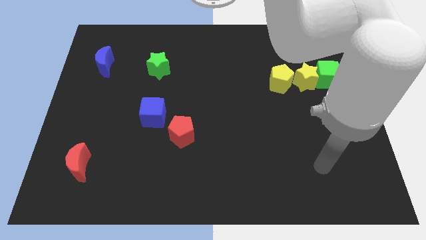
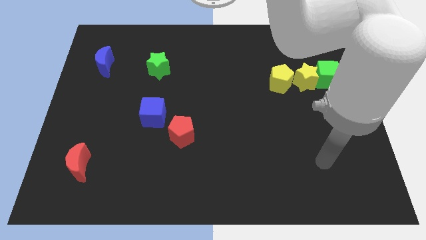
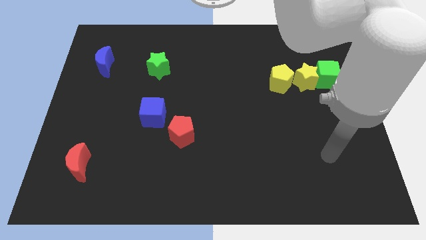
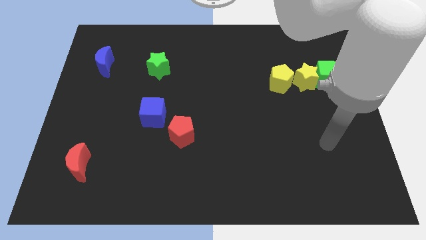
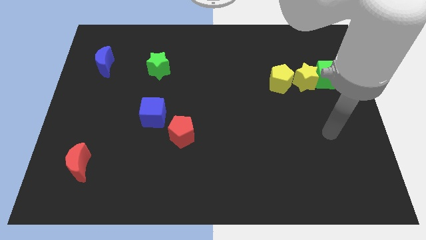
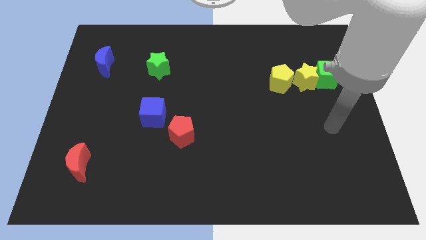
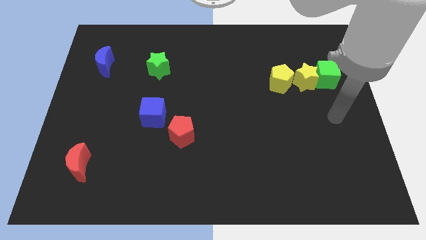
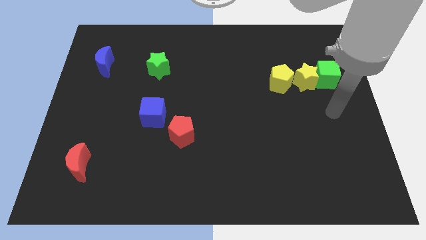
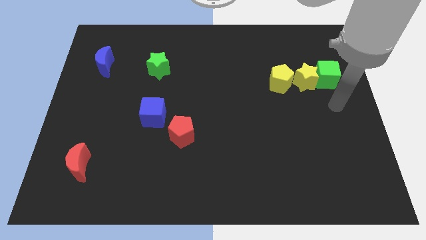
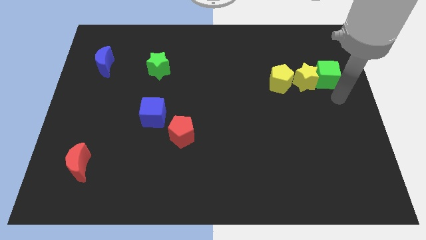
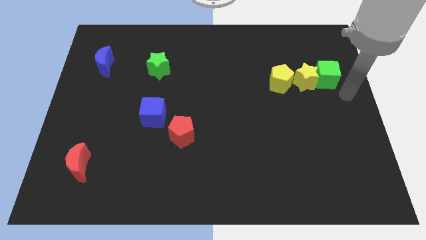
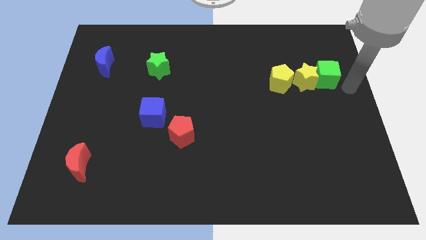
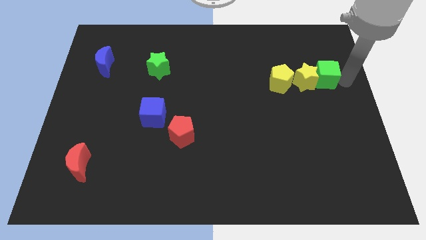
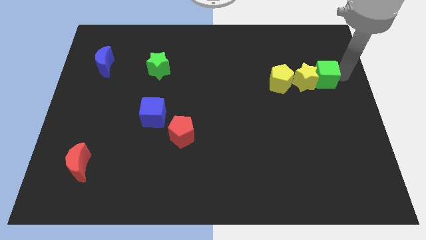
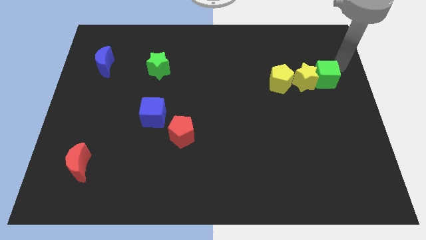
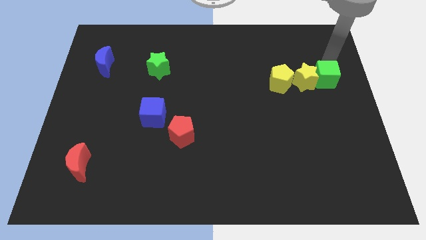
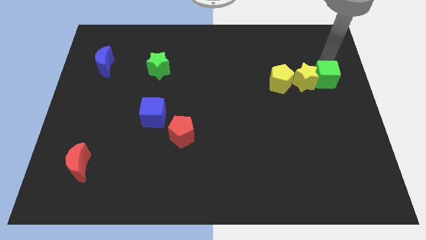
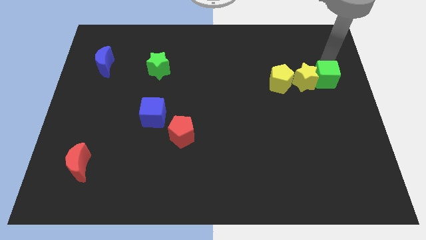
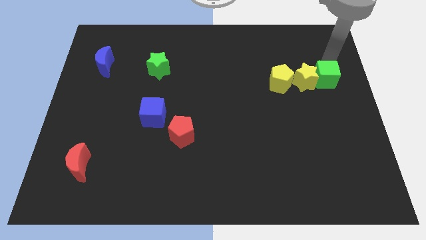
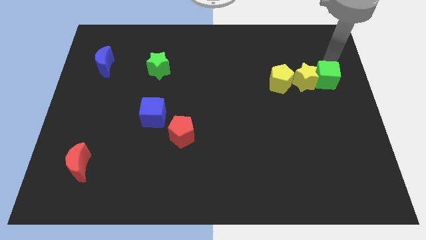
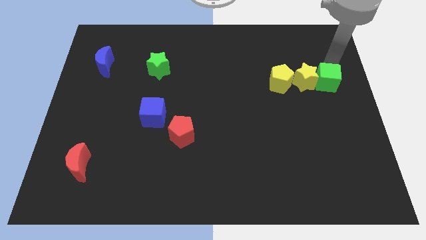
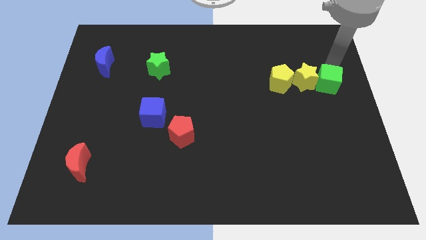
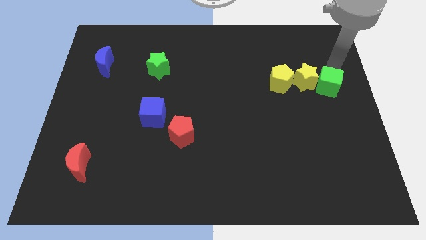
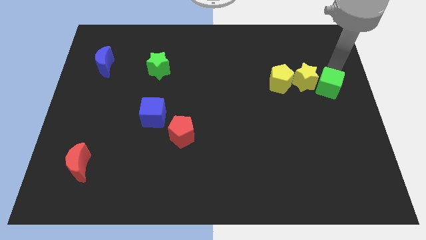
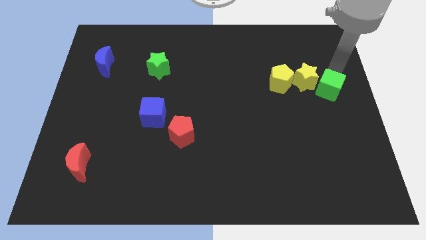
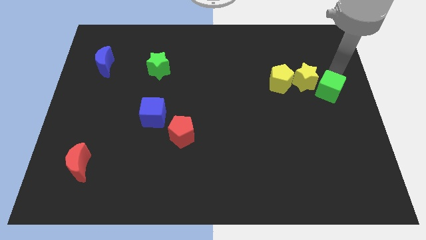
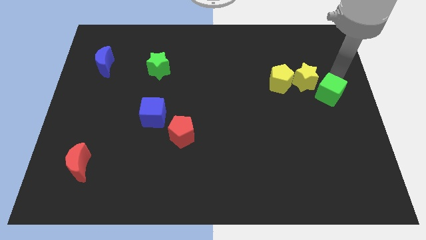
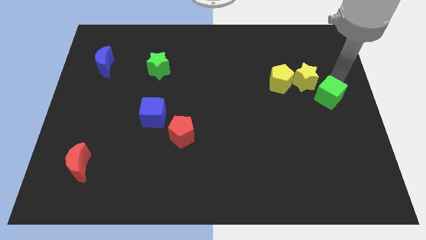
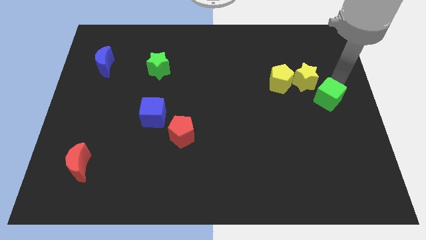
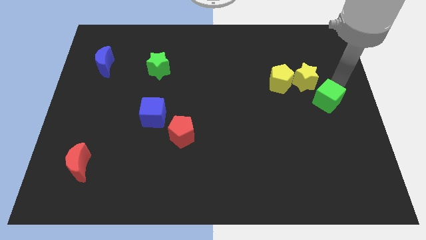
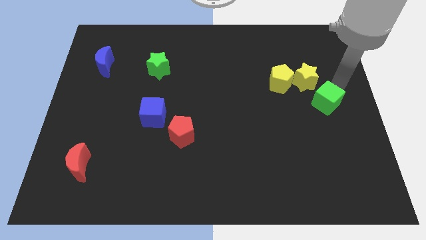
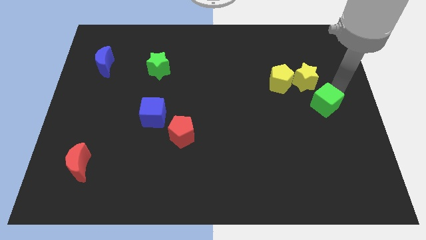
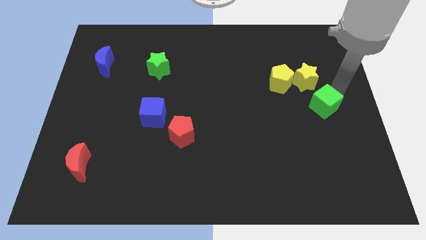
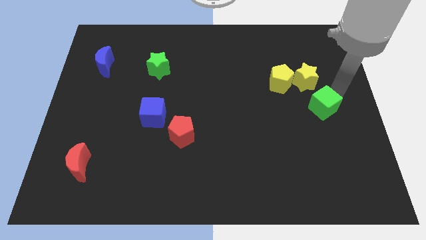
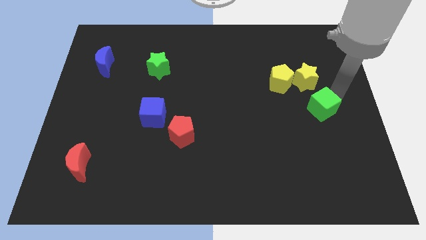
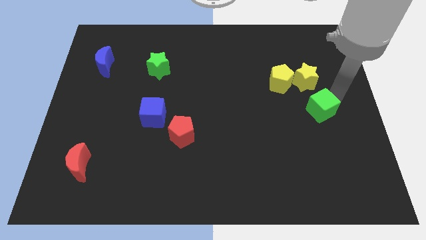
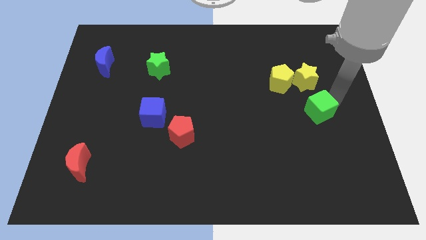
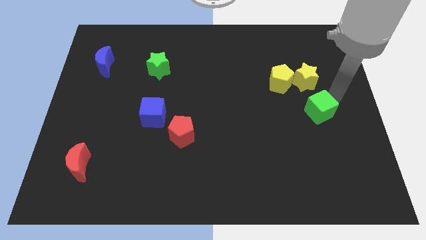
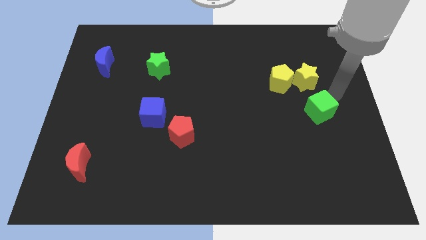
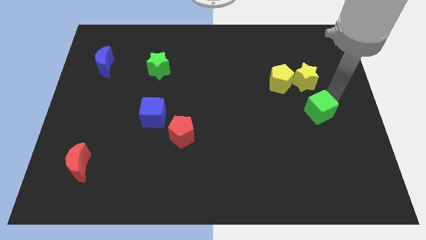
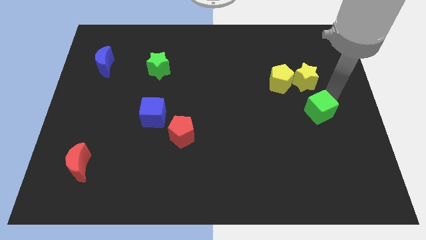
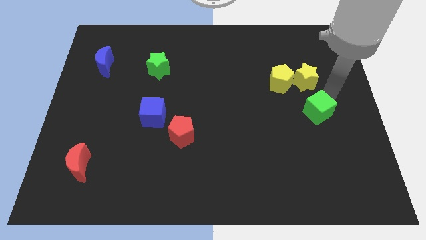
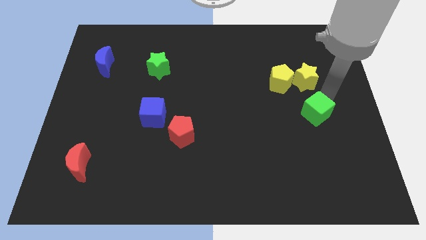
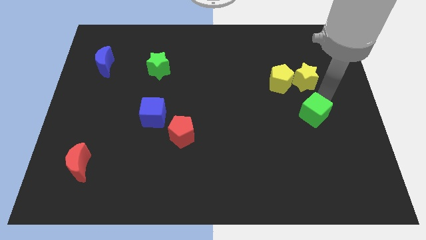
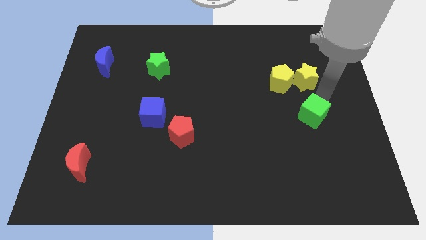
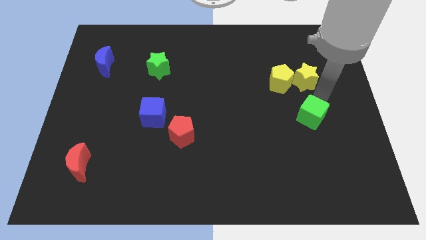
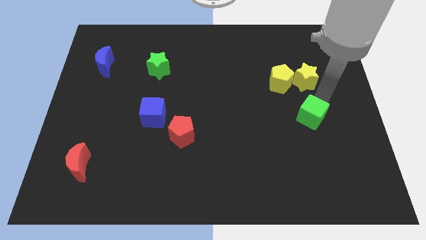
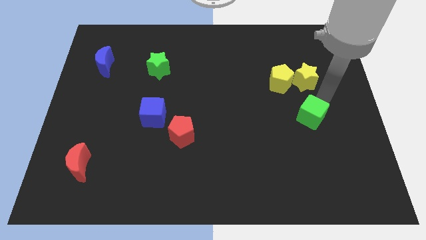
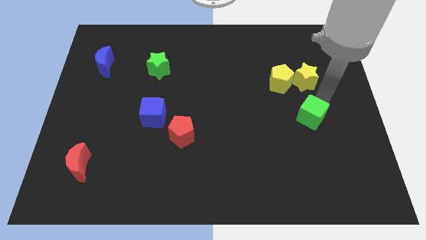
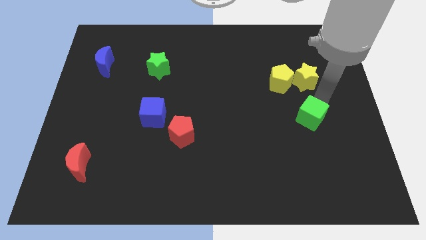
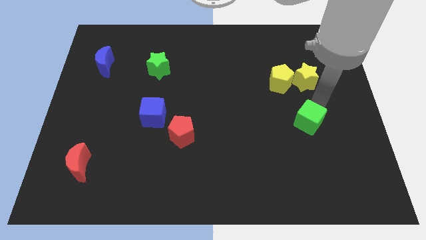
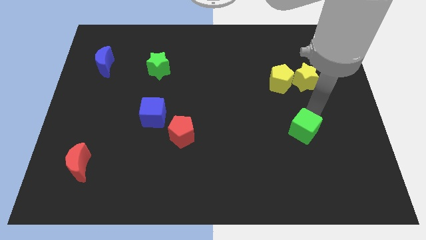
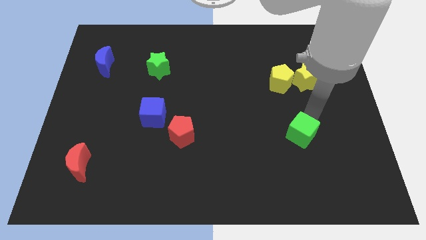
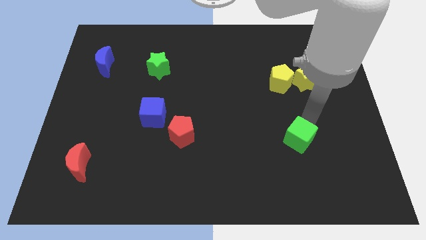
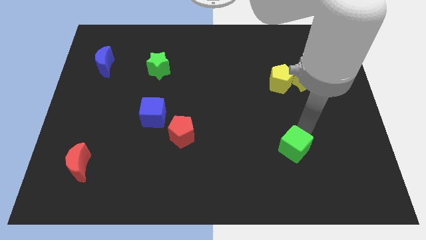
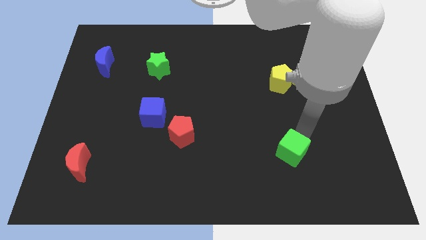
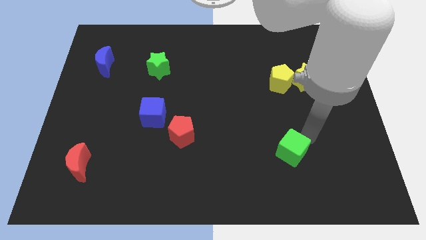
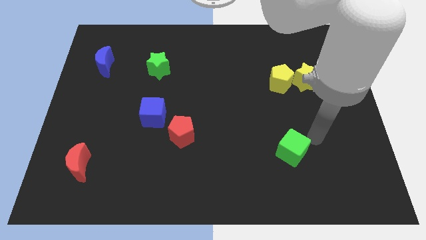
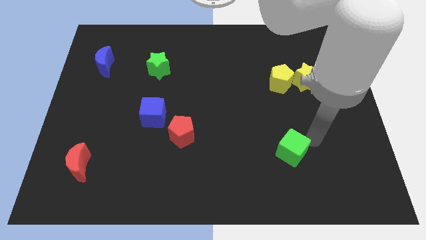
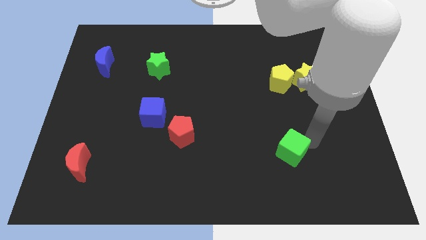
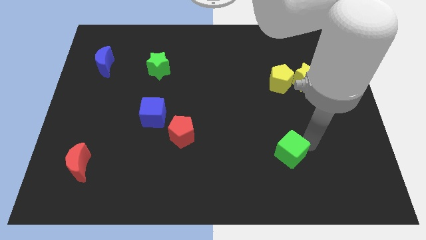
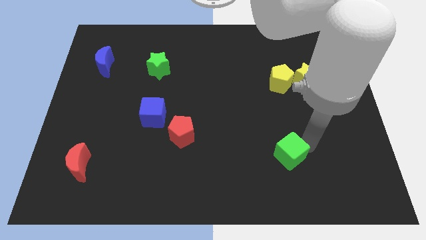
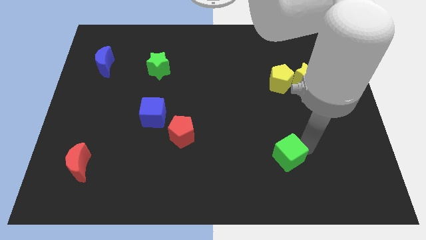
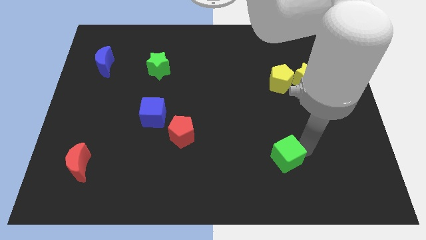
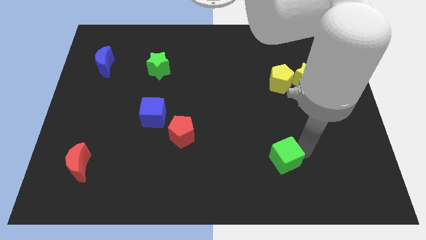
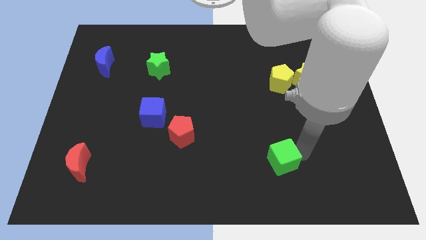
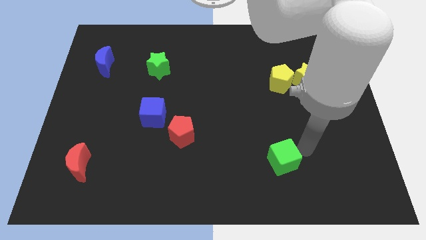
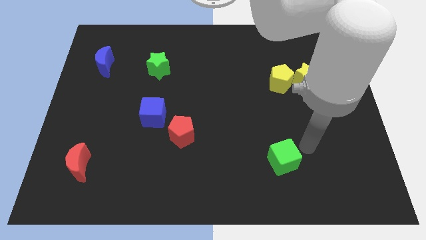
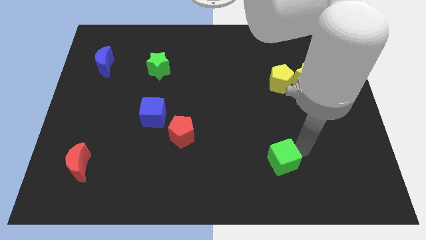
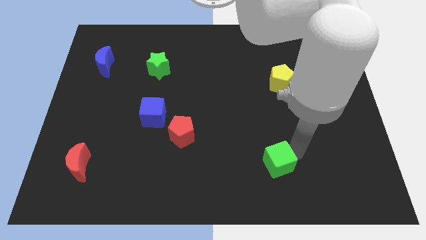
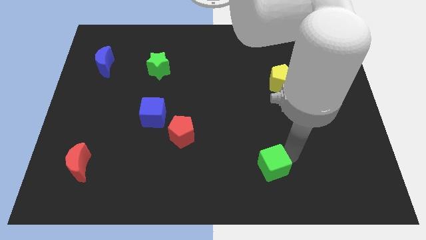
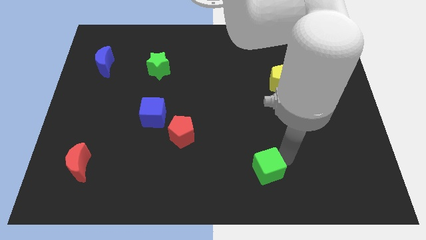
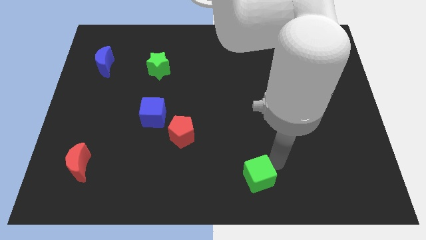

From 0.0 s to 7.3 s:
put the green cube to the bottom side

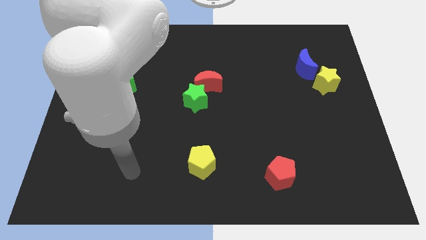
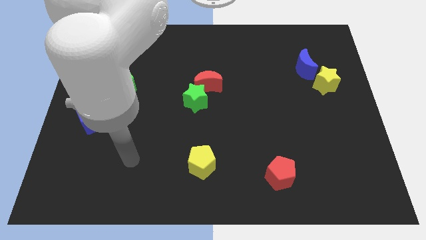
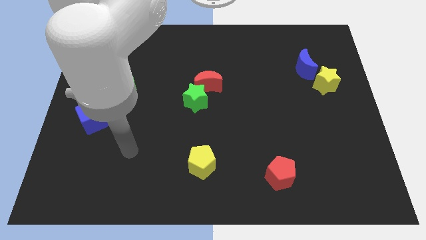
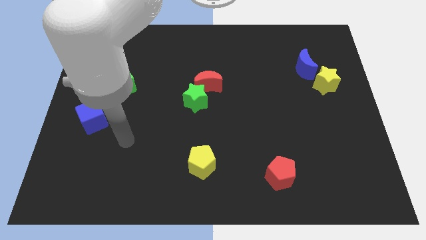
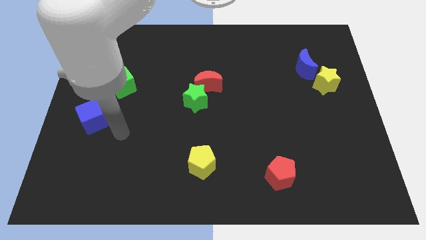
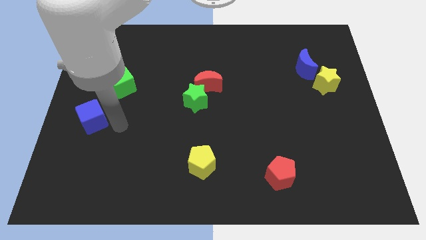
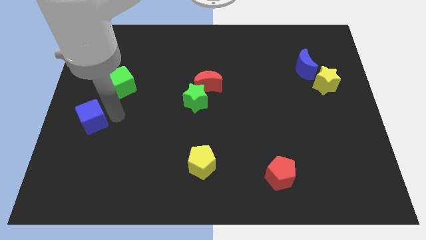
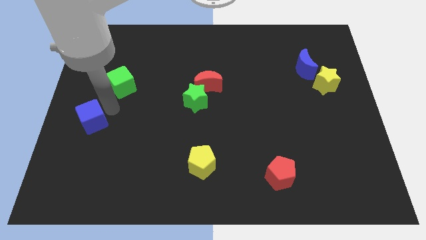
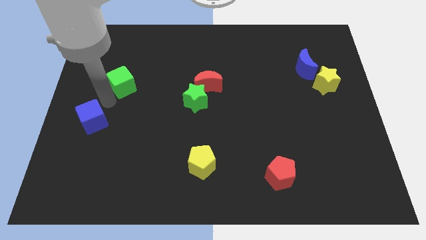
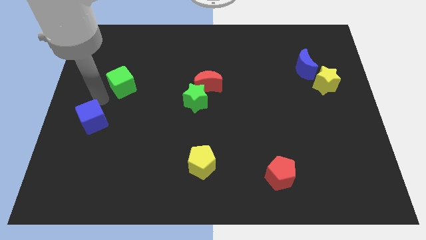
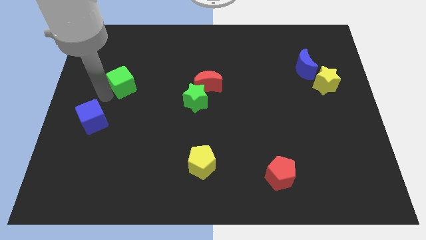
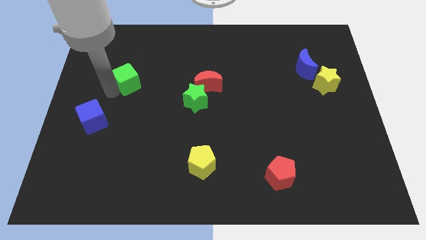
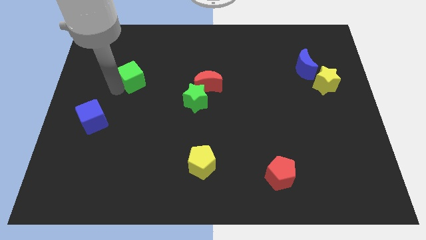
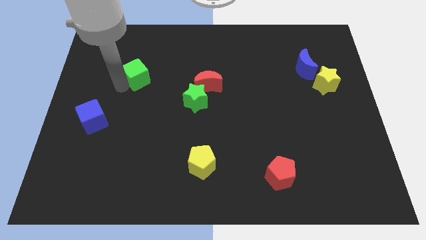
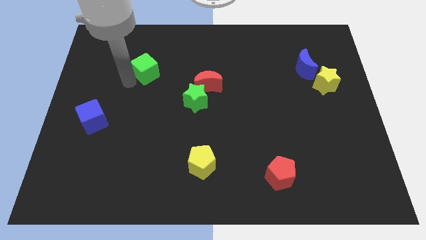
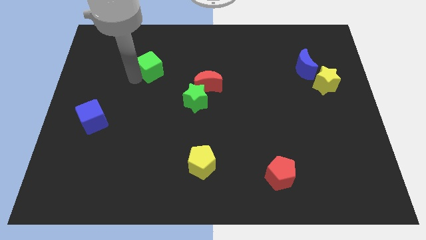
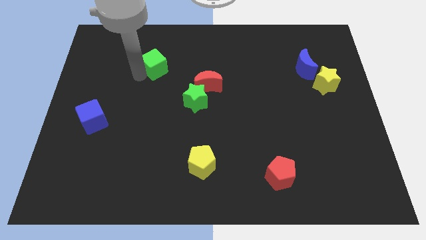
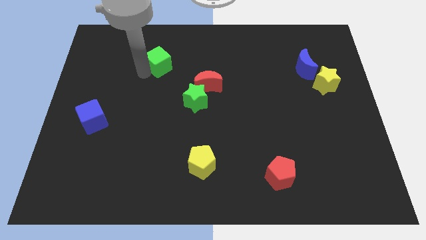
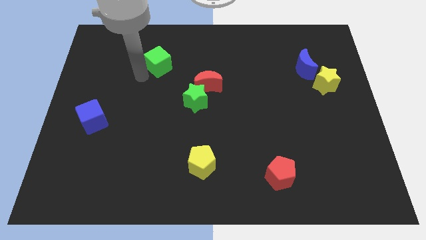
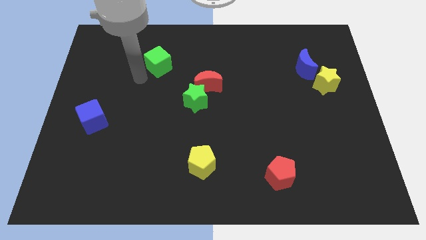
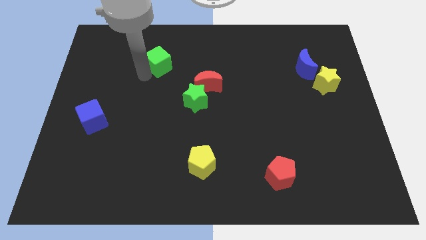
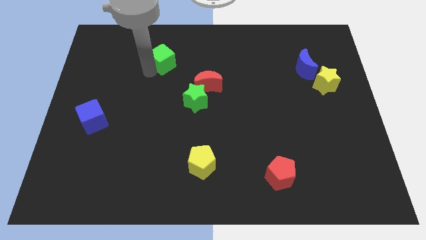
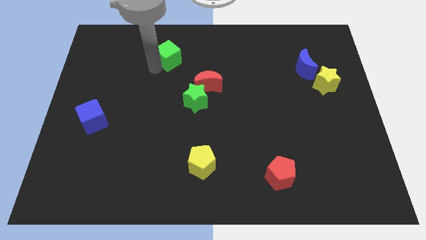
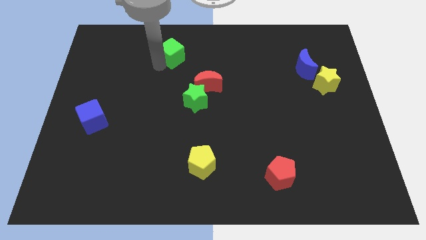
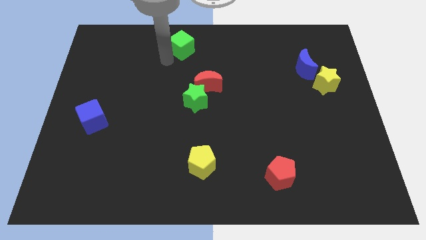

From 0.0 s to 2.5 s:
push the green cube to the top
